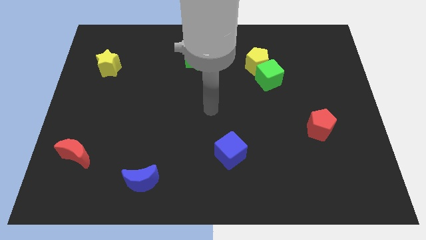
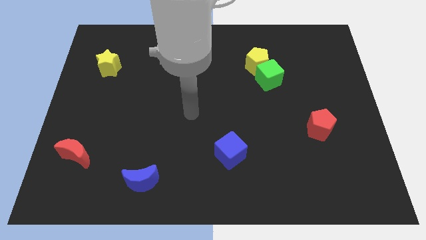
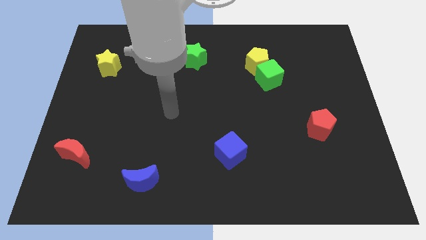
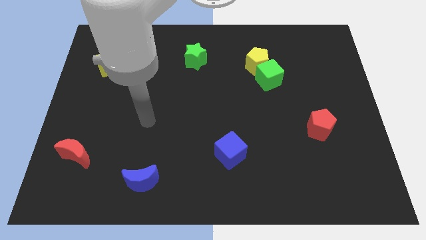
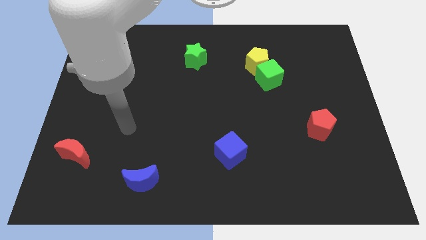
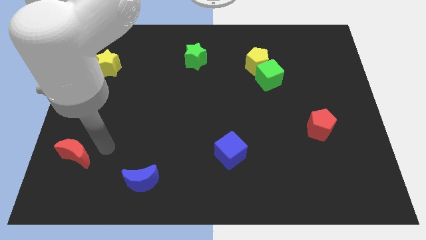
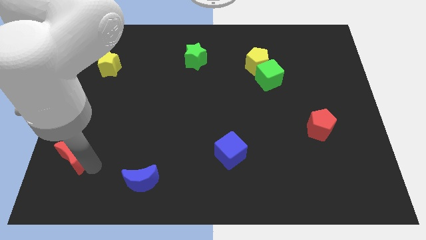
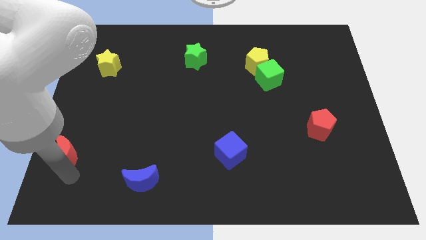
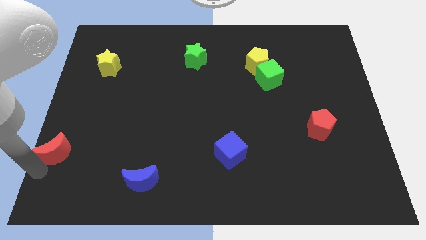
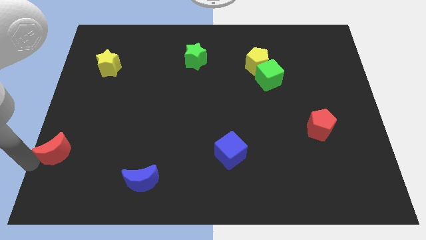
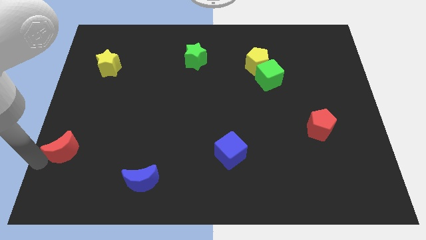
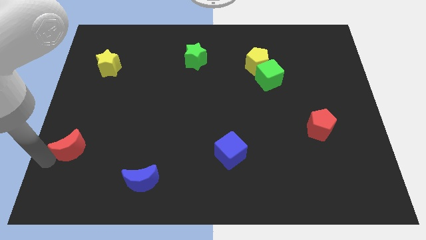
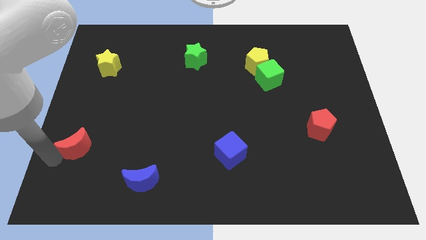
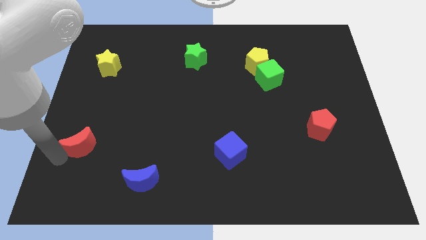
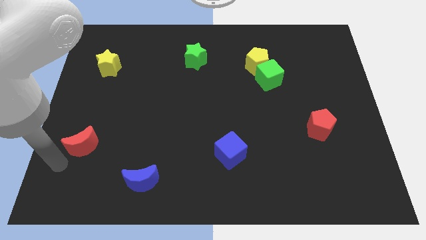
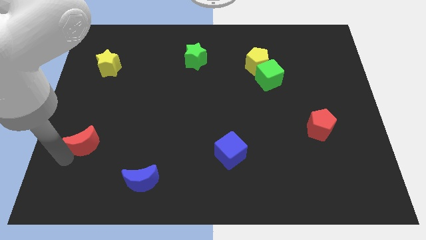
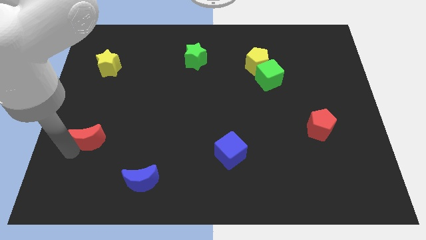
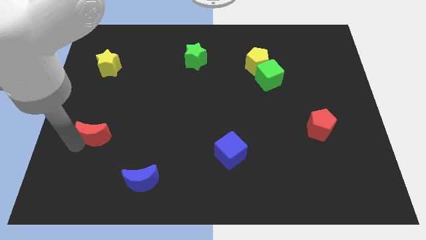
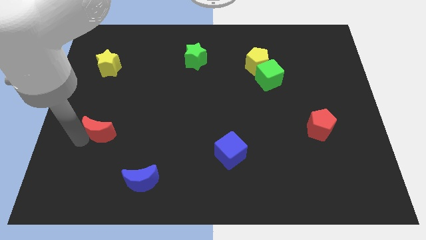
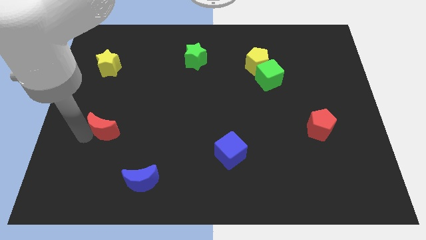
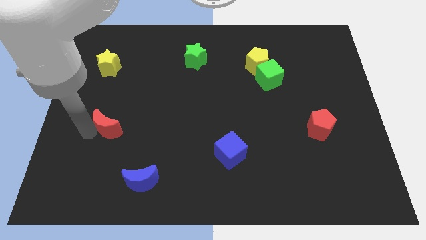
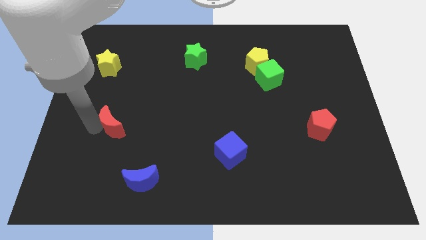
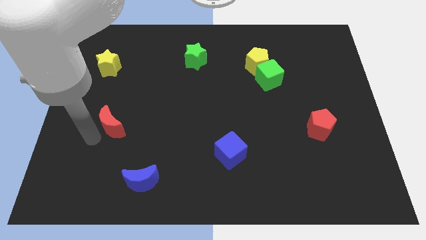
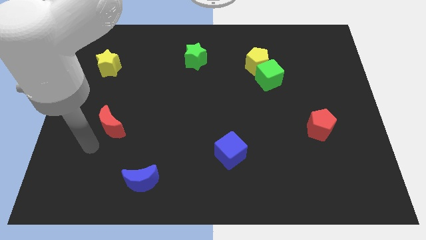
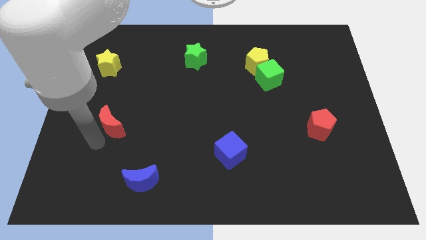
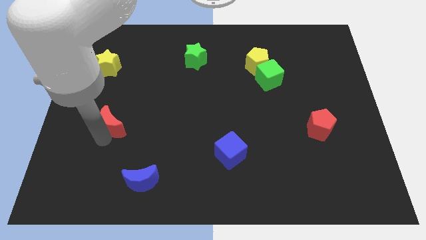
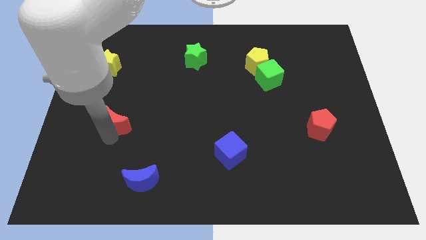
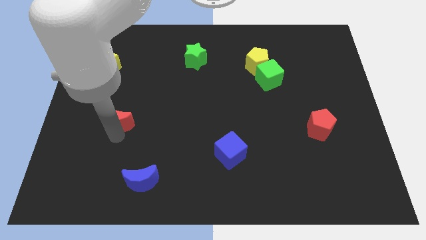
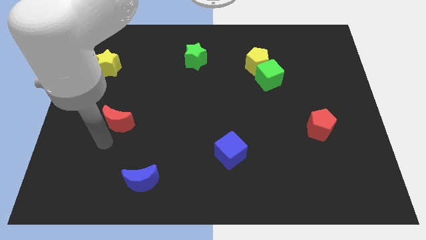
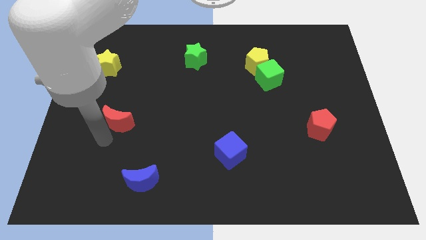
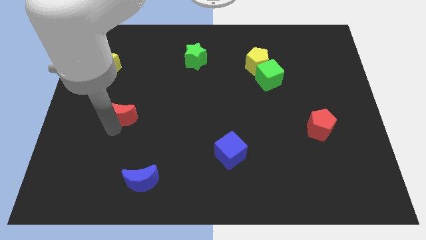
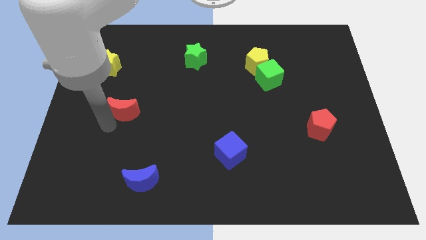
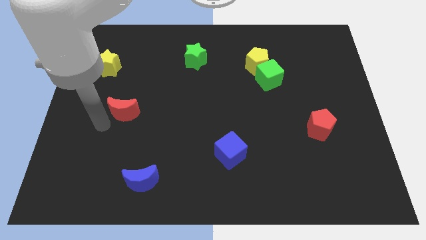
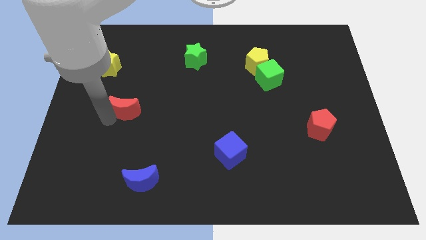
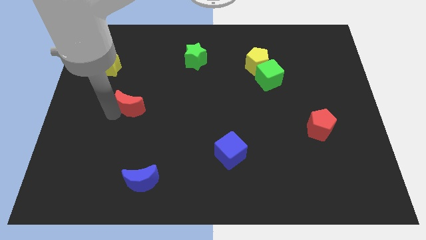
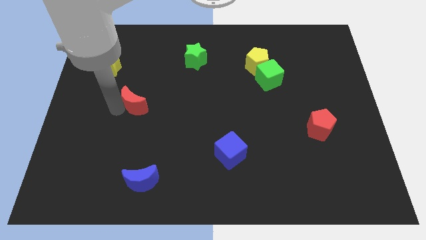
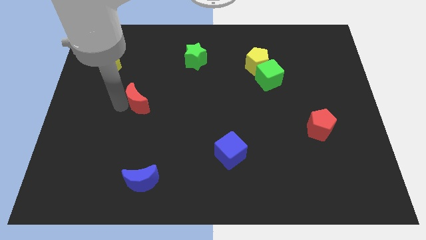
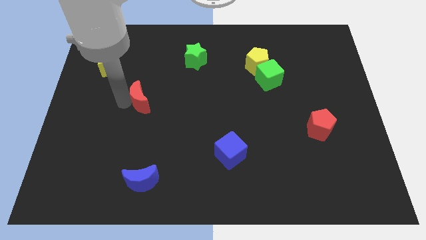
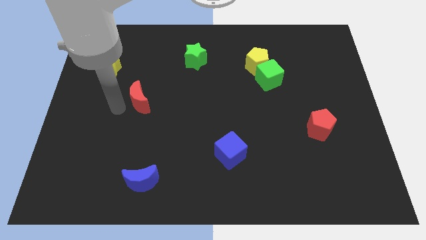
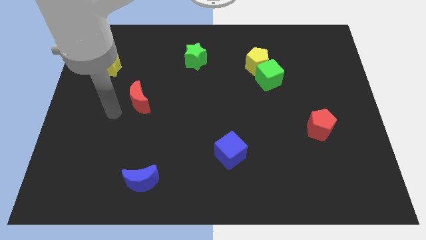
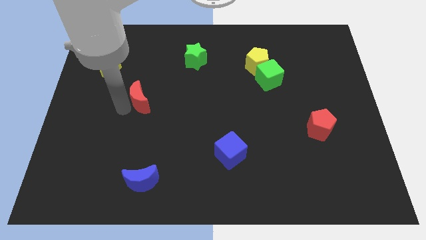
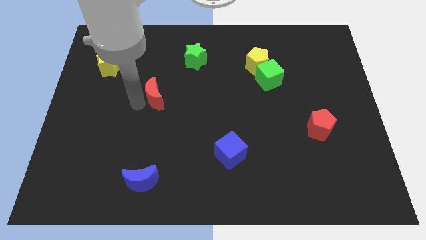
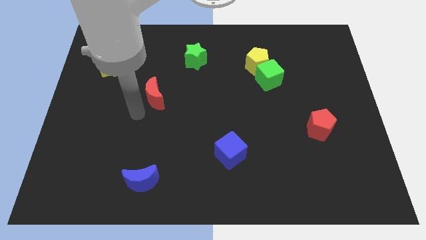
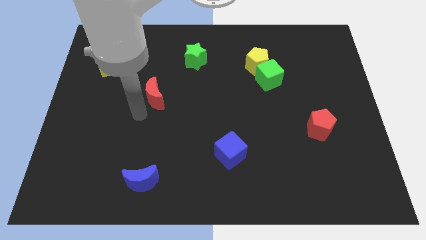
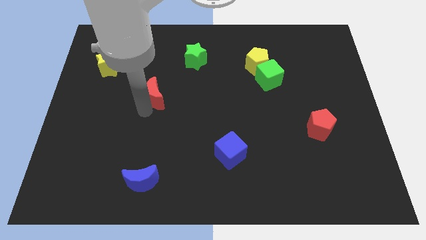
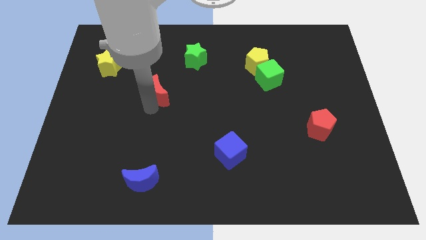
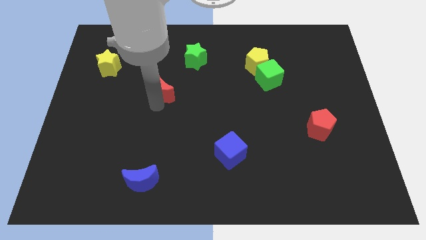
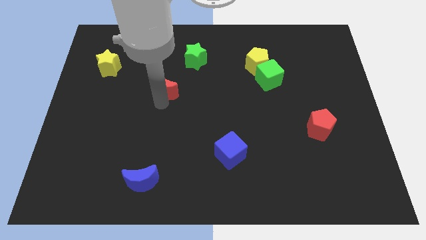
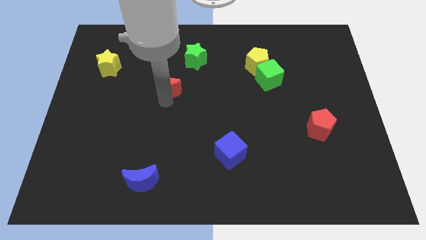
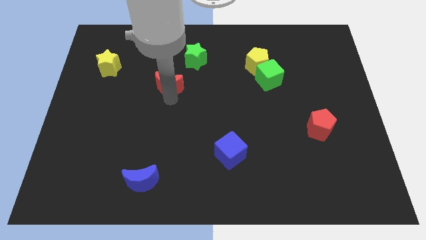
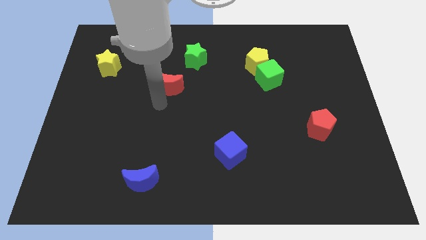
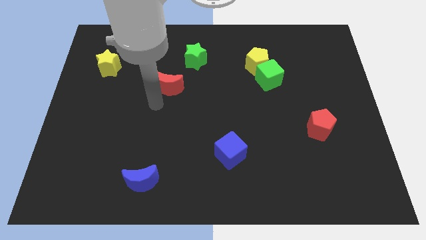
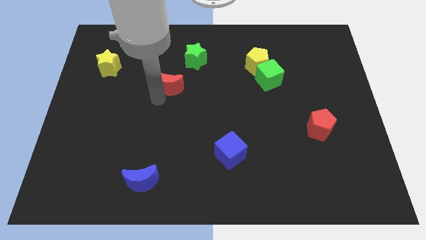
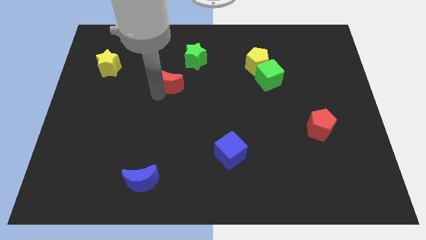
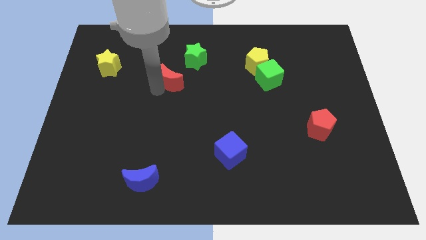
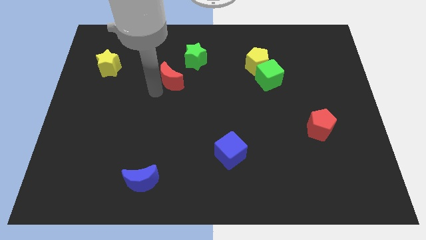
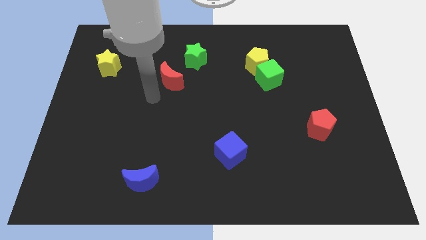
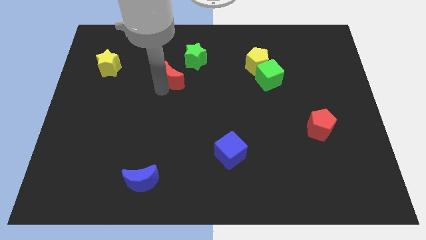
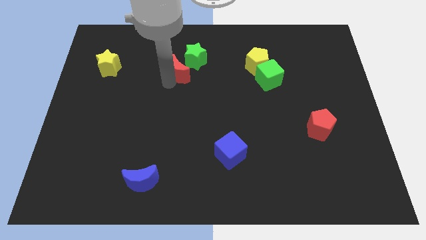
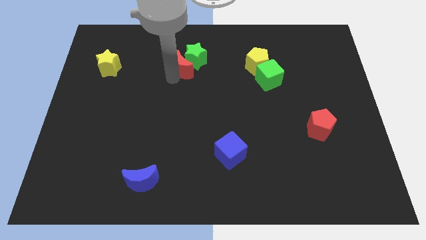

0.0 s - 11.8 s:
slide the red moon close to the green star

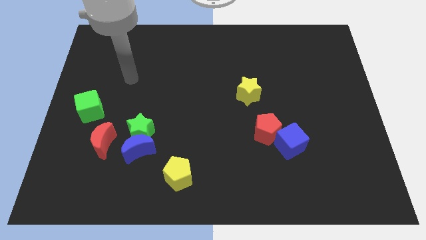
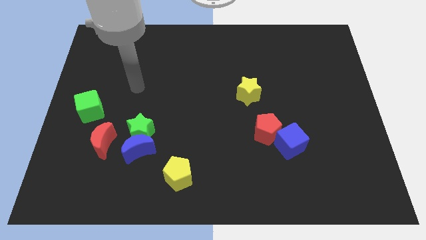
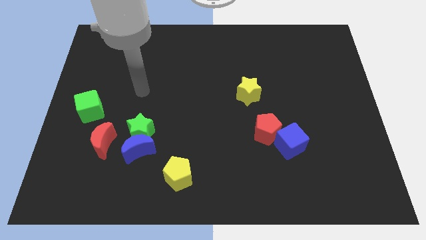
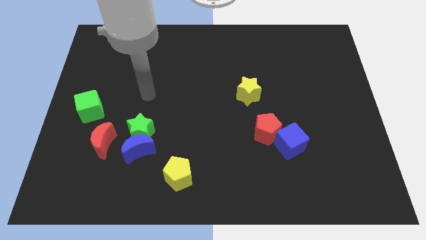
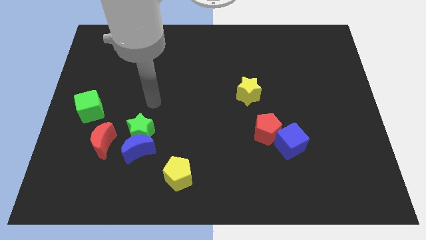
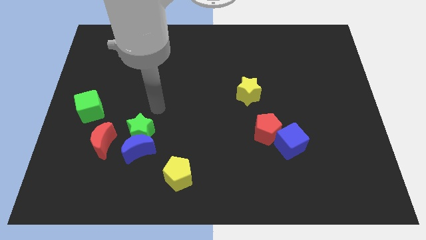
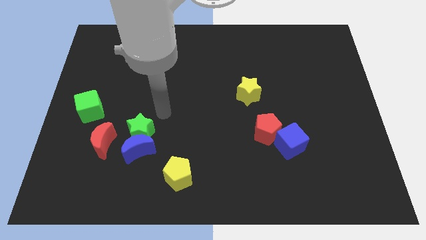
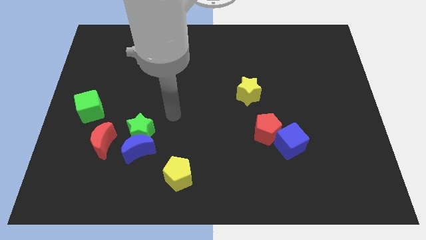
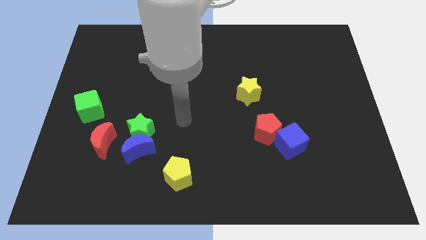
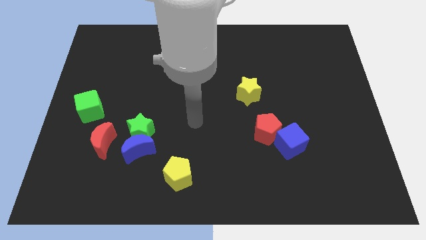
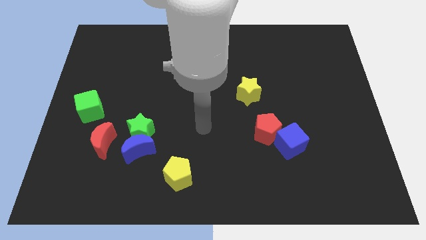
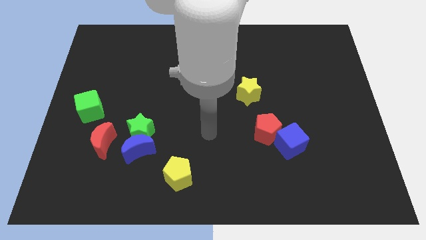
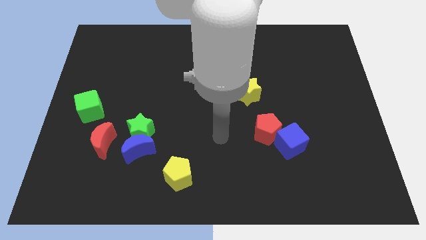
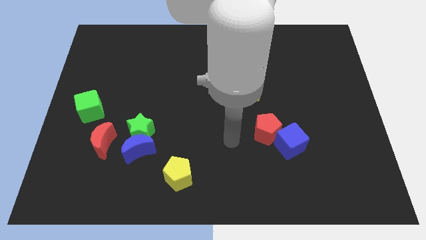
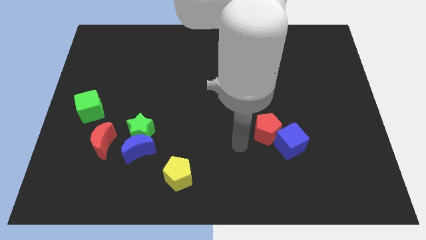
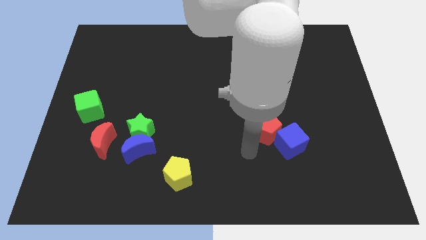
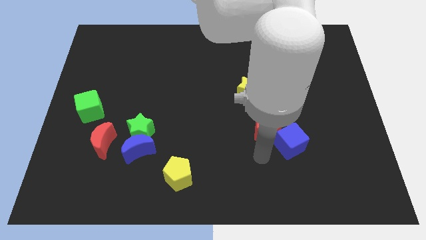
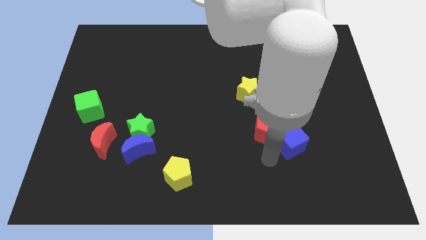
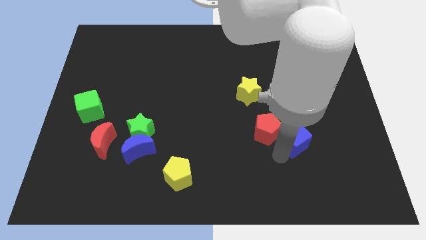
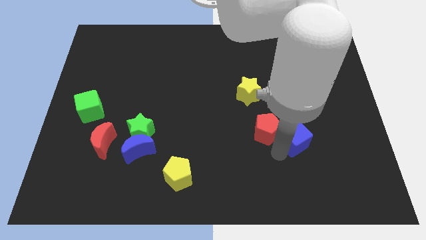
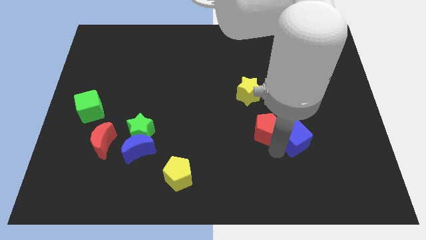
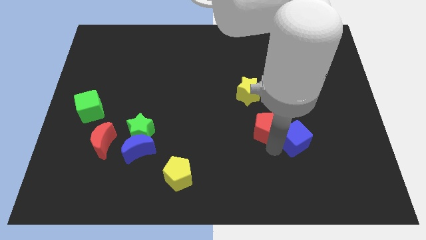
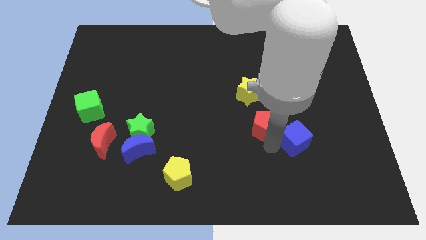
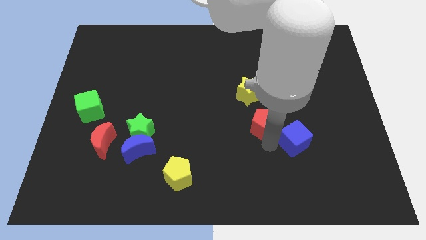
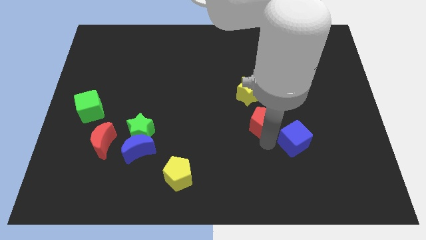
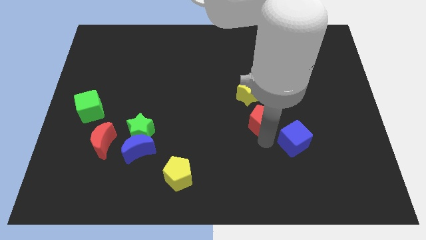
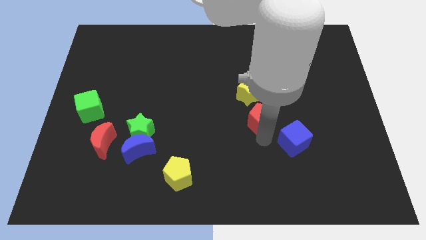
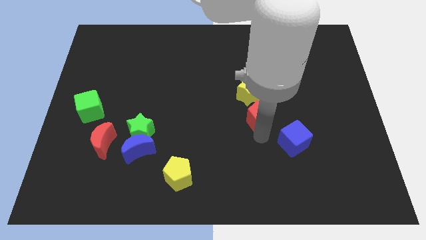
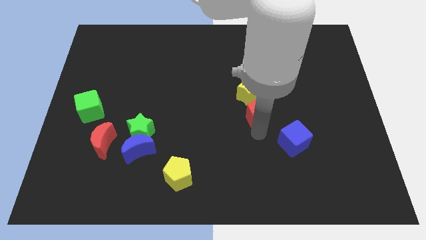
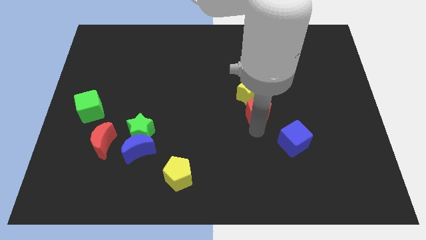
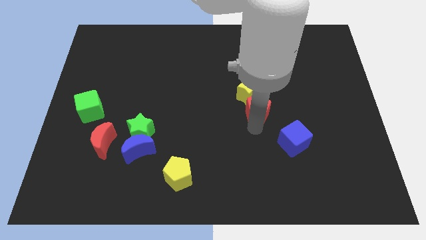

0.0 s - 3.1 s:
slide the red pentagon towards the yellow star
